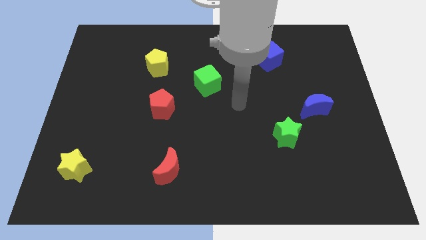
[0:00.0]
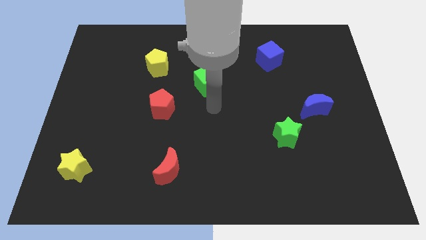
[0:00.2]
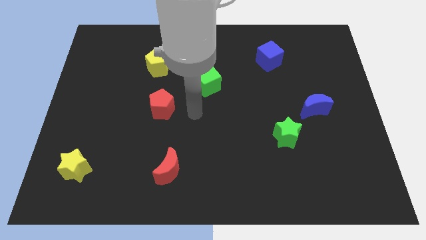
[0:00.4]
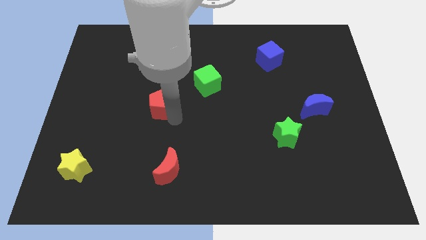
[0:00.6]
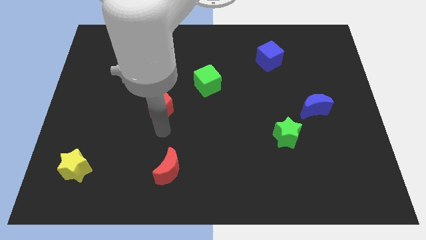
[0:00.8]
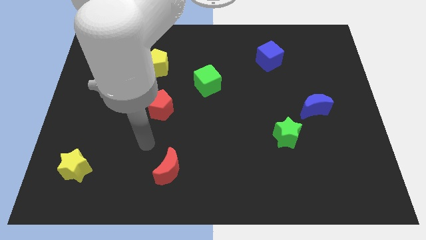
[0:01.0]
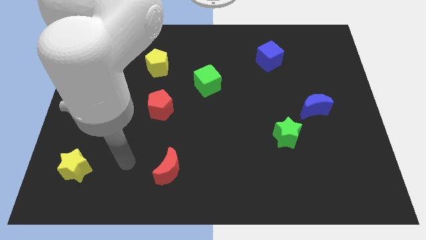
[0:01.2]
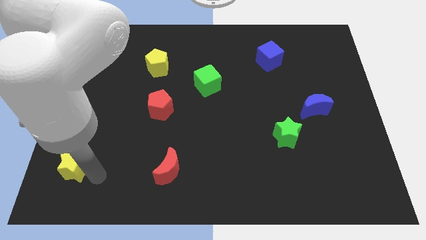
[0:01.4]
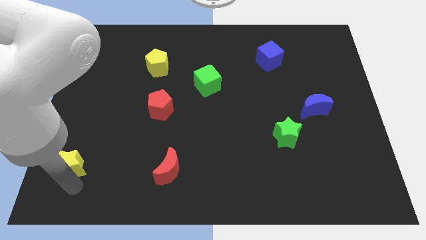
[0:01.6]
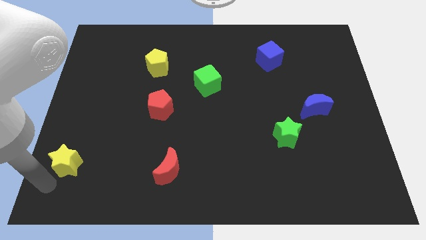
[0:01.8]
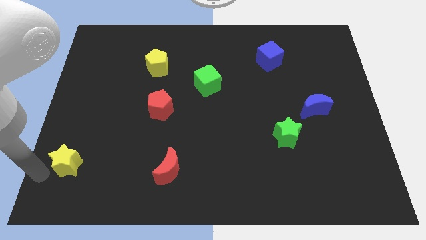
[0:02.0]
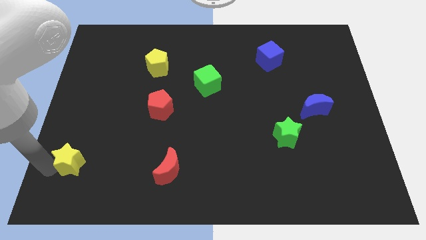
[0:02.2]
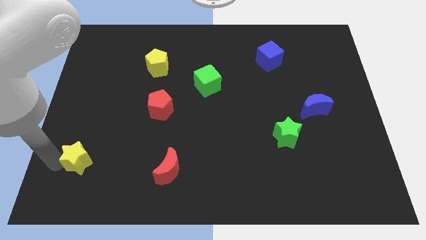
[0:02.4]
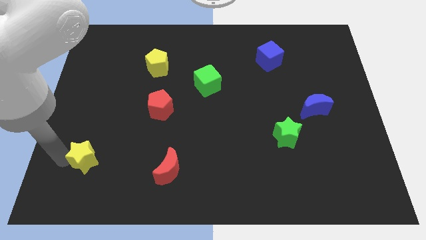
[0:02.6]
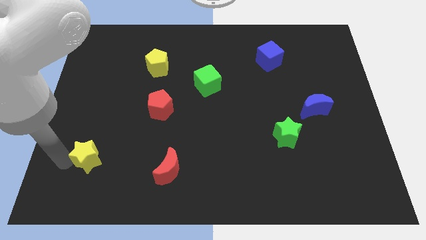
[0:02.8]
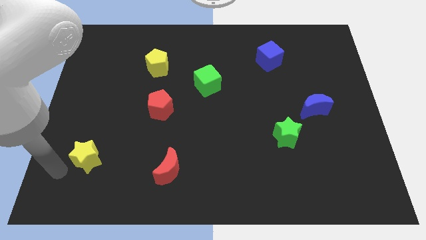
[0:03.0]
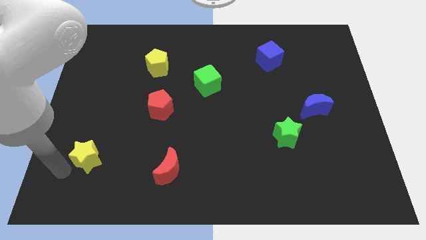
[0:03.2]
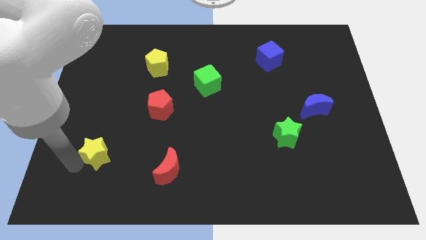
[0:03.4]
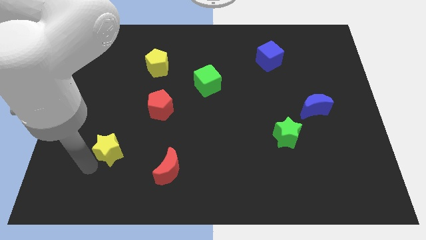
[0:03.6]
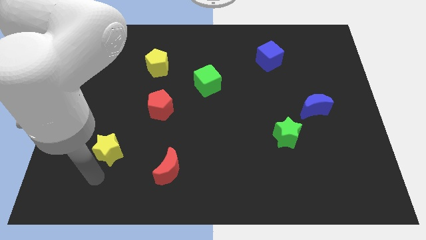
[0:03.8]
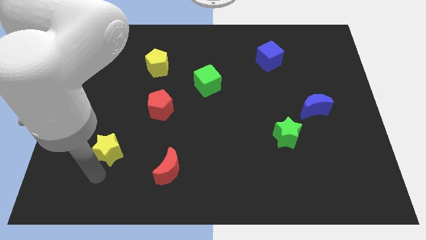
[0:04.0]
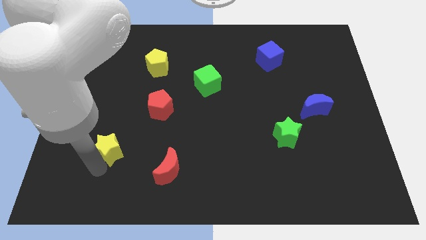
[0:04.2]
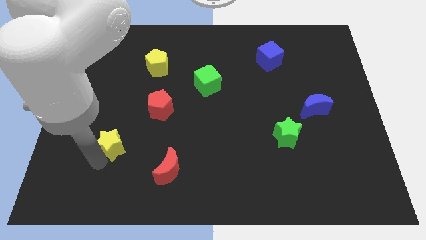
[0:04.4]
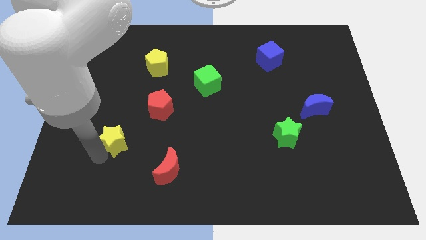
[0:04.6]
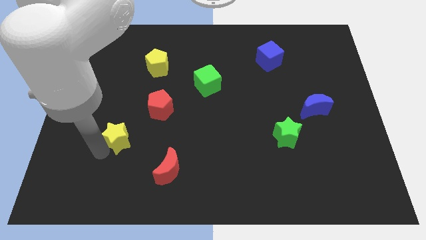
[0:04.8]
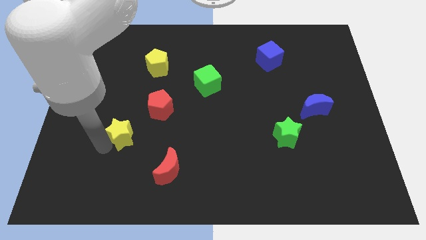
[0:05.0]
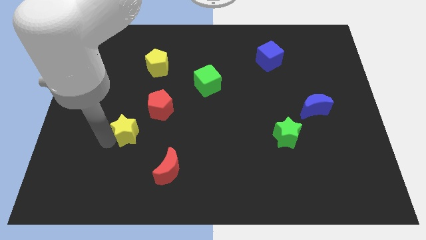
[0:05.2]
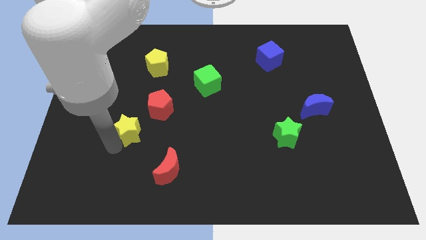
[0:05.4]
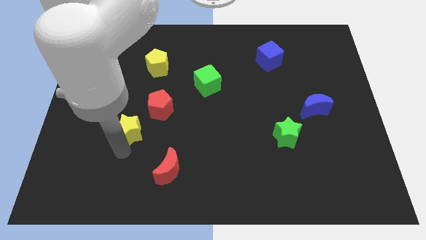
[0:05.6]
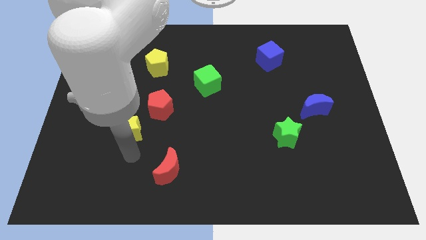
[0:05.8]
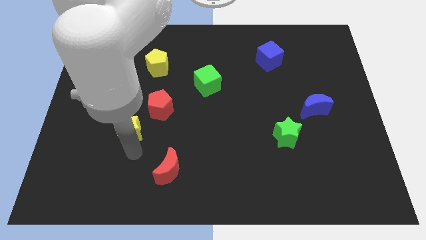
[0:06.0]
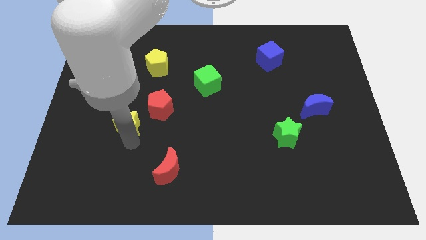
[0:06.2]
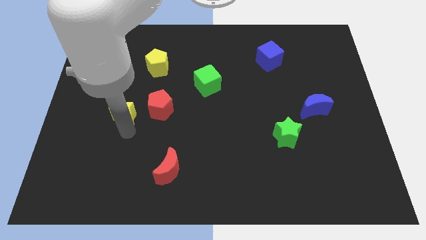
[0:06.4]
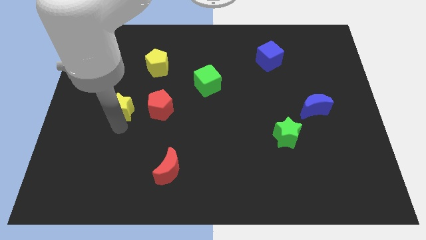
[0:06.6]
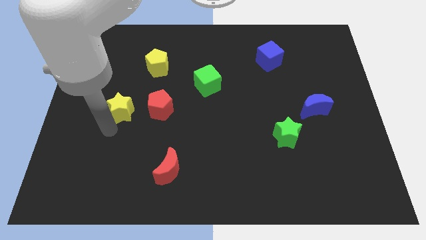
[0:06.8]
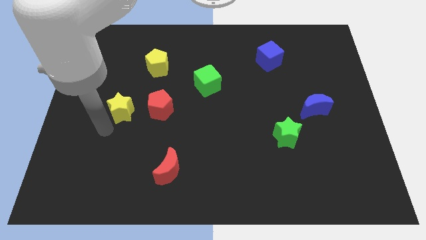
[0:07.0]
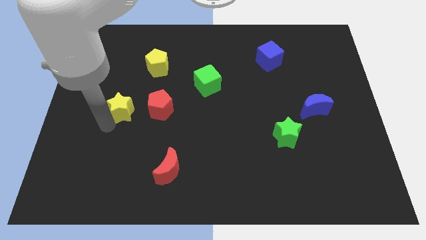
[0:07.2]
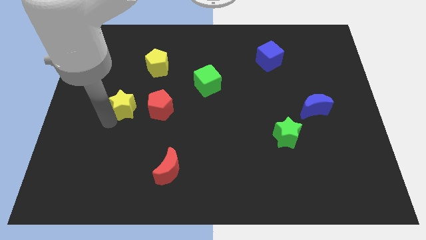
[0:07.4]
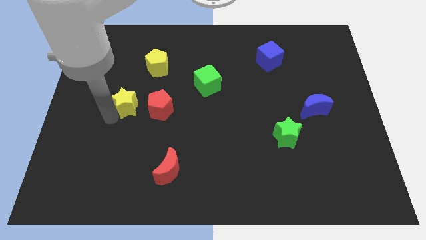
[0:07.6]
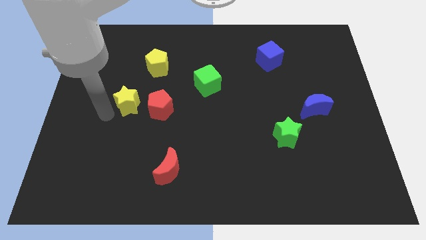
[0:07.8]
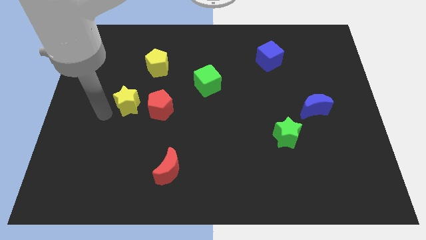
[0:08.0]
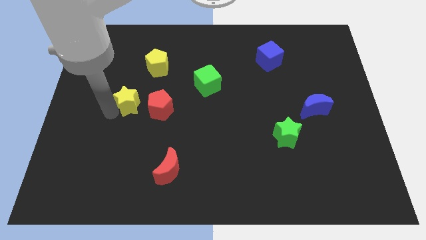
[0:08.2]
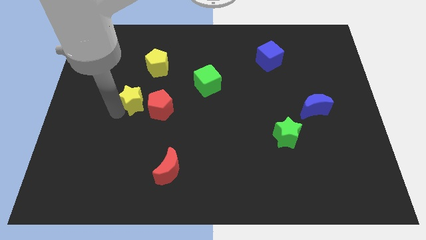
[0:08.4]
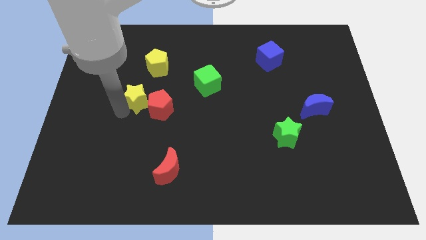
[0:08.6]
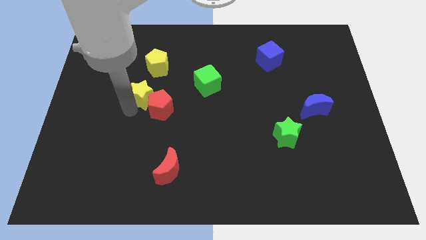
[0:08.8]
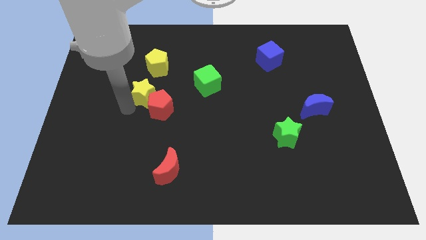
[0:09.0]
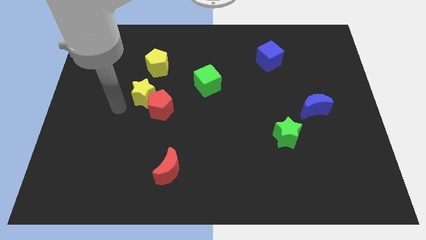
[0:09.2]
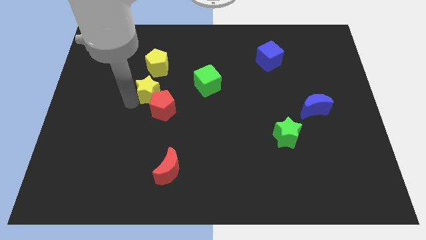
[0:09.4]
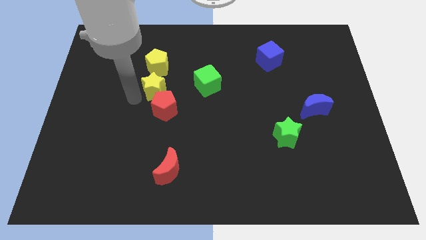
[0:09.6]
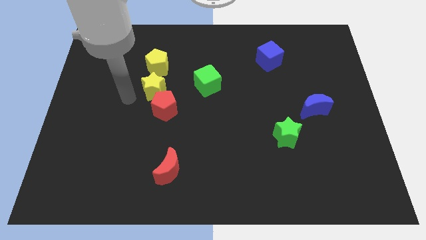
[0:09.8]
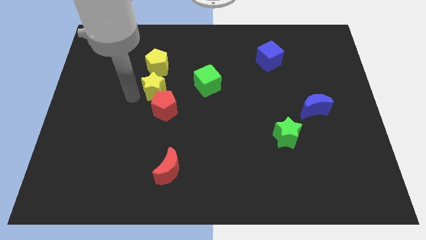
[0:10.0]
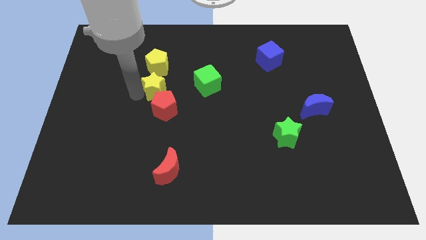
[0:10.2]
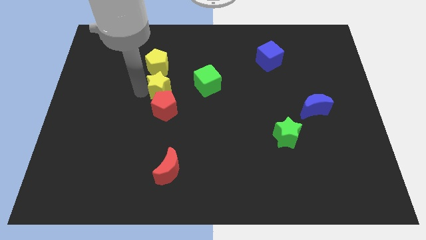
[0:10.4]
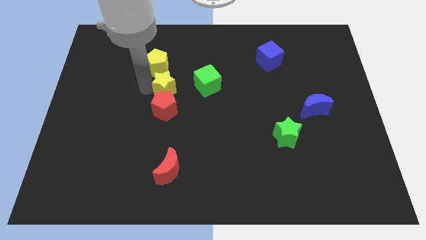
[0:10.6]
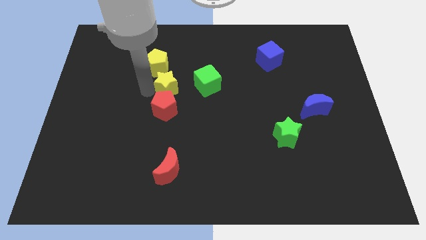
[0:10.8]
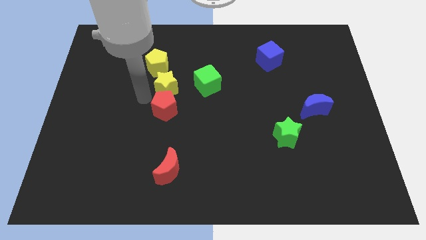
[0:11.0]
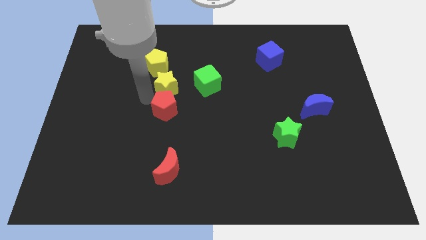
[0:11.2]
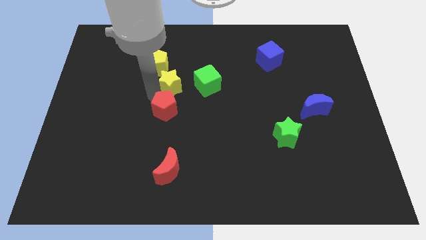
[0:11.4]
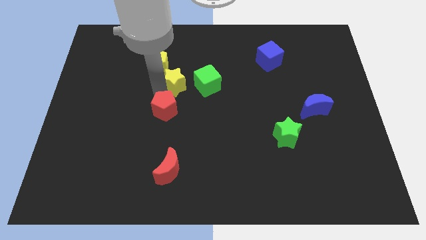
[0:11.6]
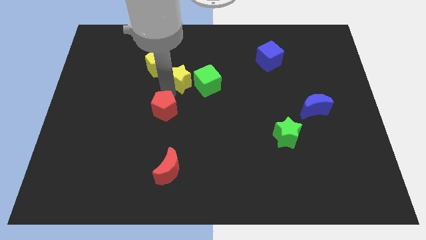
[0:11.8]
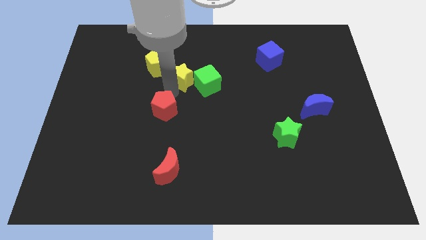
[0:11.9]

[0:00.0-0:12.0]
move the yellow star to the right side of the yellow pentagon

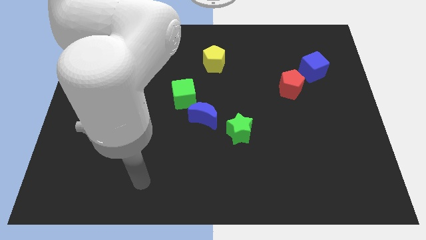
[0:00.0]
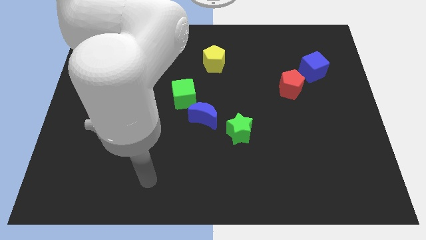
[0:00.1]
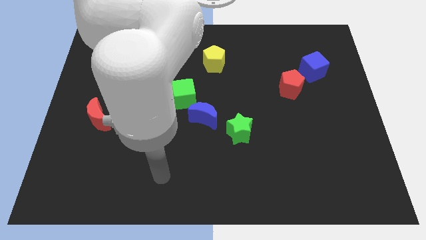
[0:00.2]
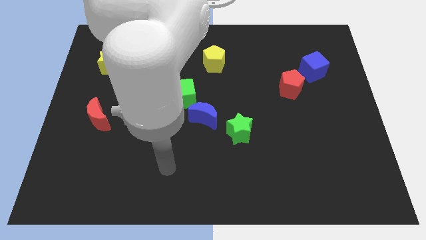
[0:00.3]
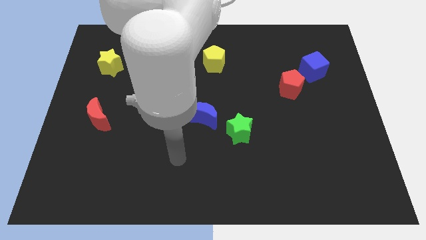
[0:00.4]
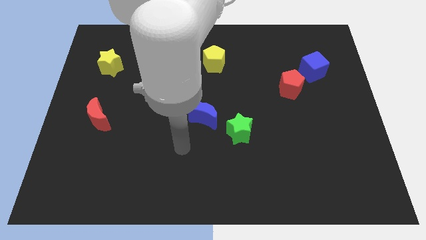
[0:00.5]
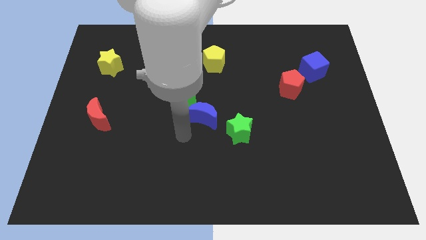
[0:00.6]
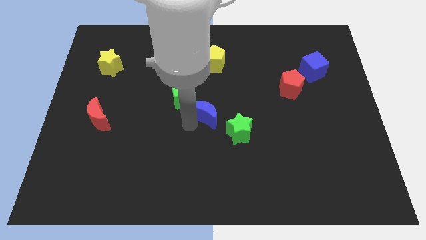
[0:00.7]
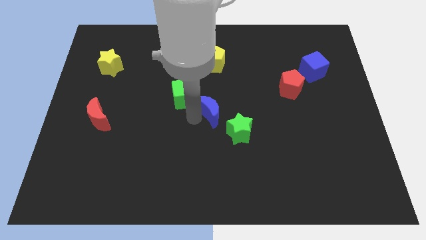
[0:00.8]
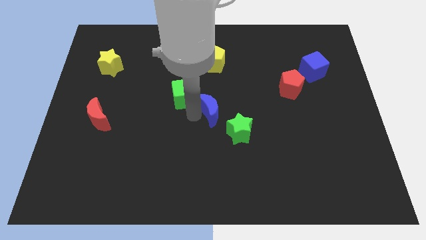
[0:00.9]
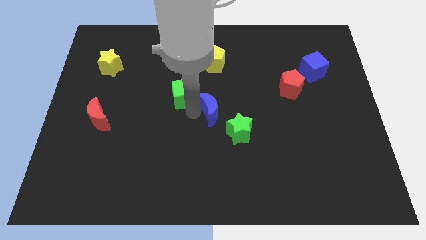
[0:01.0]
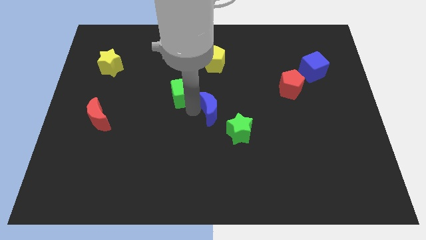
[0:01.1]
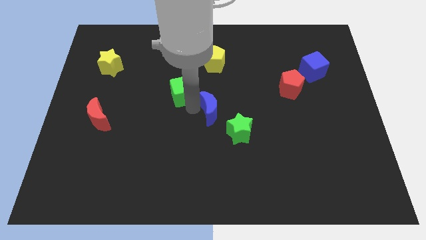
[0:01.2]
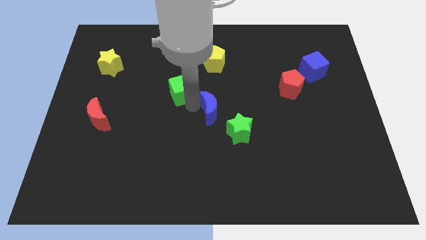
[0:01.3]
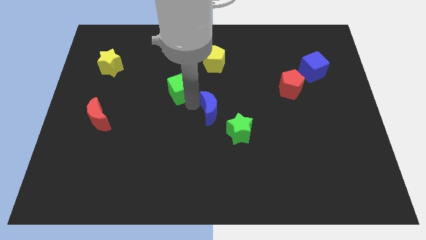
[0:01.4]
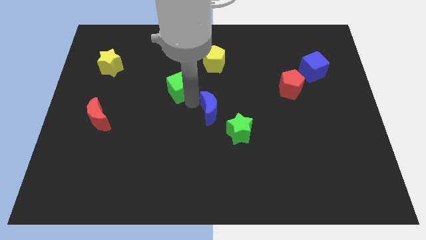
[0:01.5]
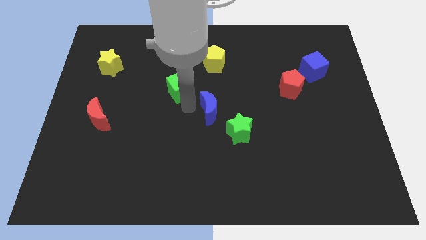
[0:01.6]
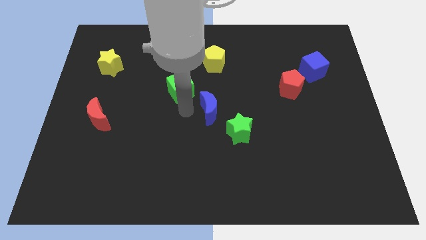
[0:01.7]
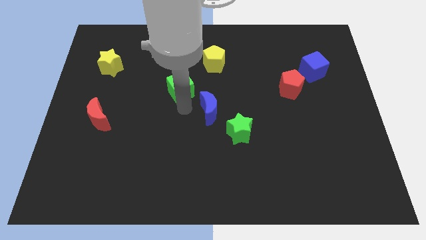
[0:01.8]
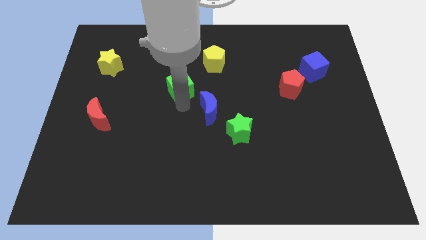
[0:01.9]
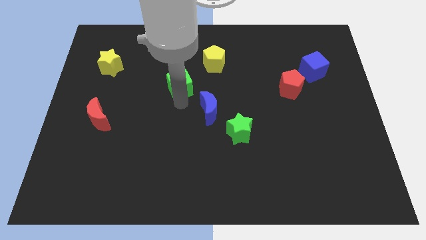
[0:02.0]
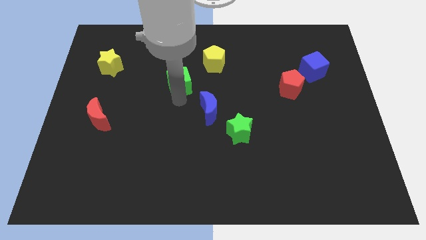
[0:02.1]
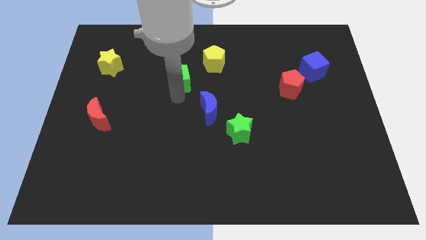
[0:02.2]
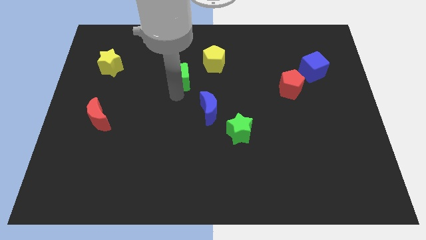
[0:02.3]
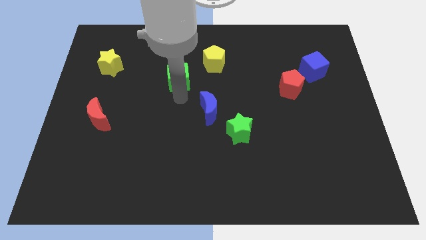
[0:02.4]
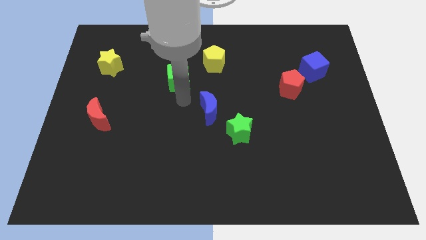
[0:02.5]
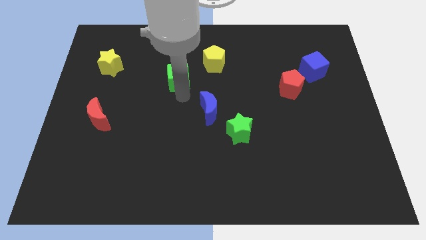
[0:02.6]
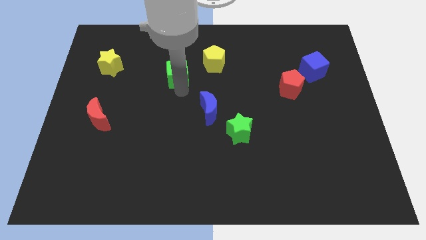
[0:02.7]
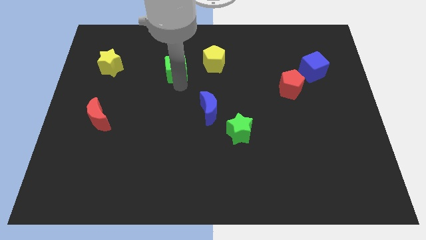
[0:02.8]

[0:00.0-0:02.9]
slide the green cube to the left of the yellow pentagon
